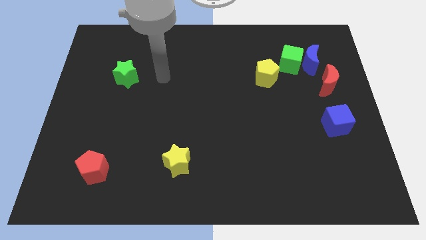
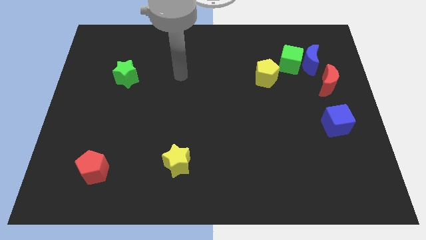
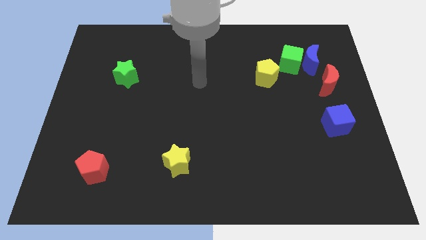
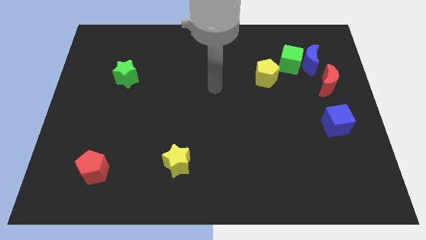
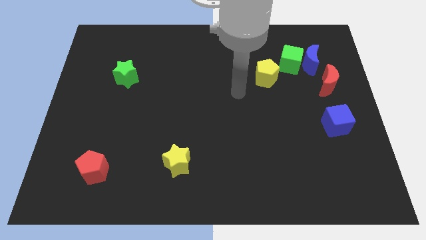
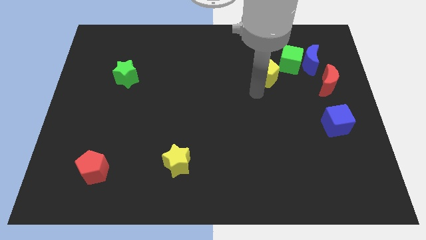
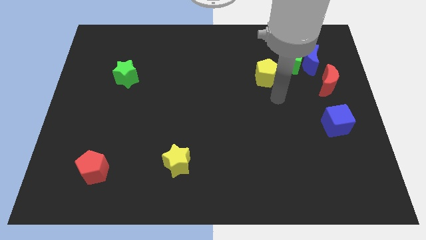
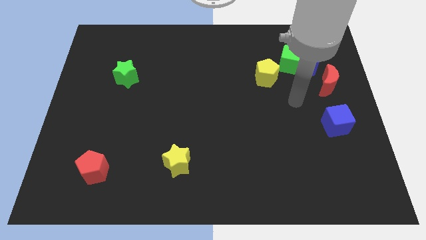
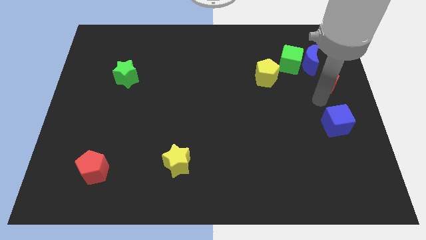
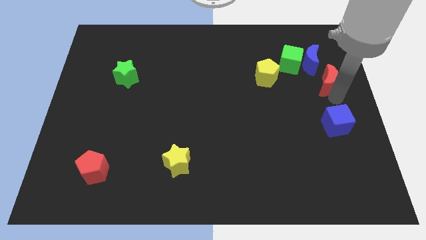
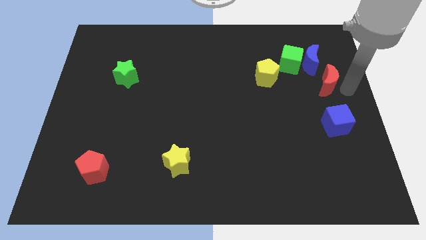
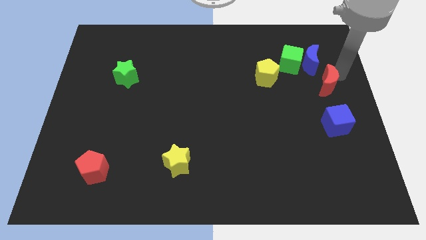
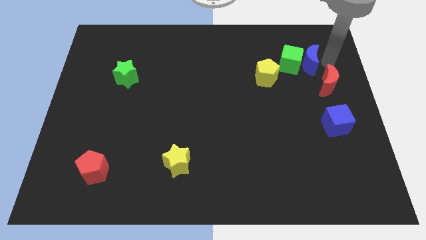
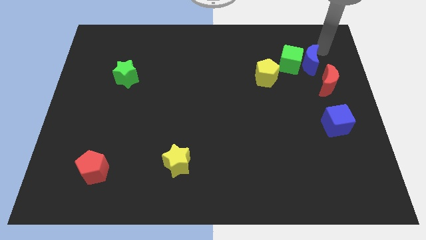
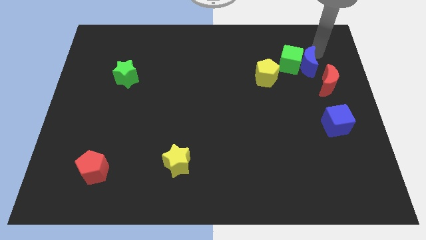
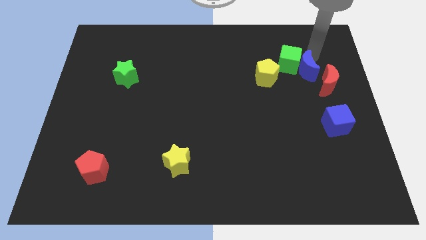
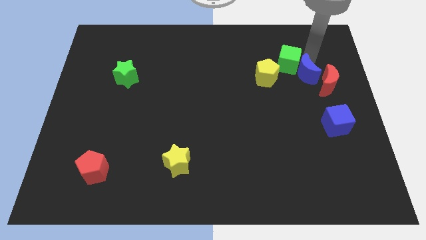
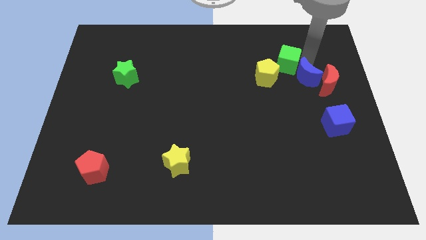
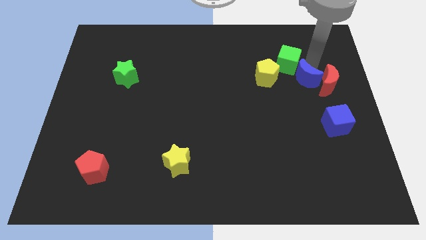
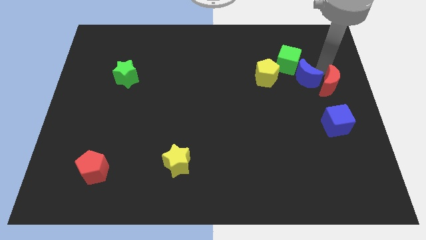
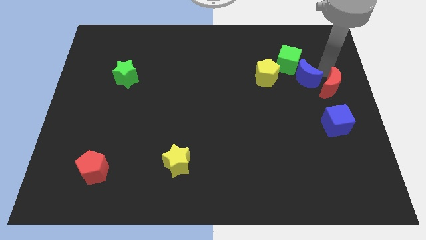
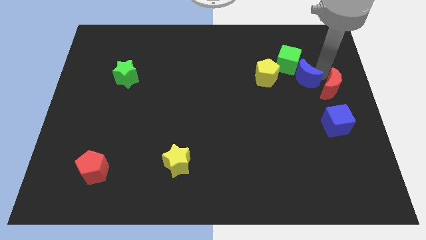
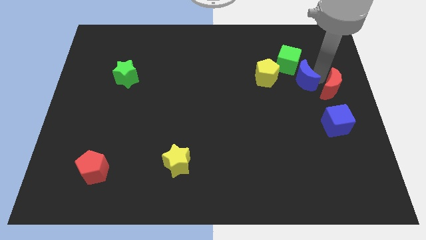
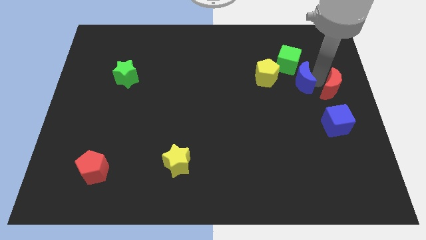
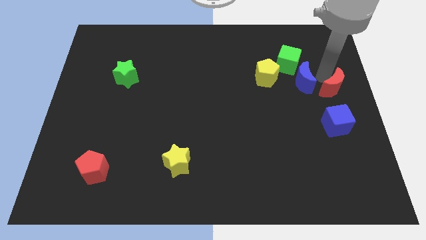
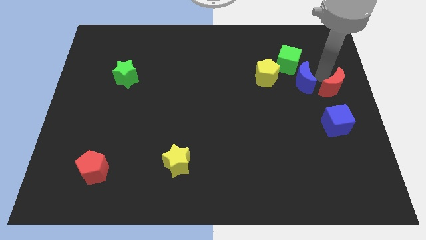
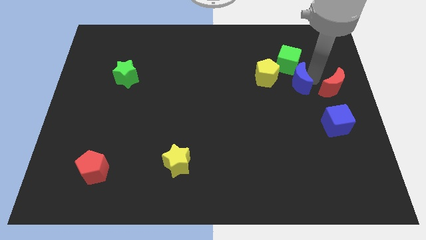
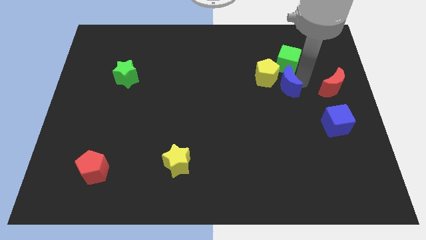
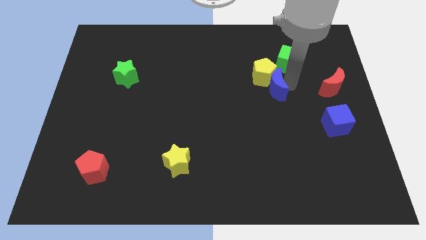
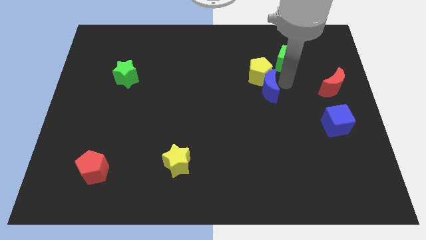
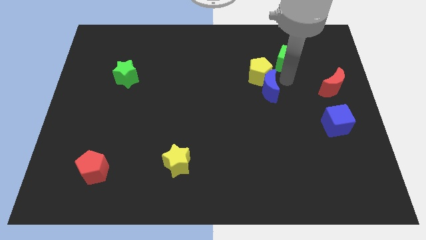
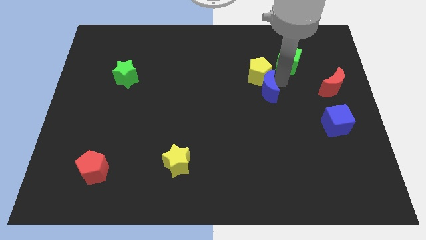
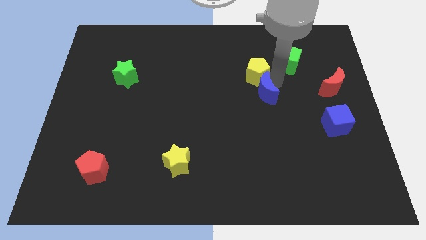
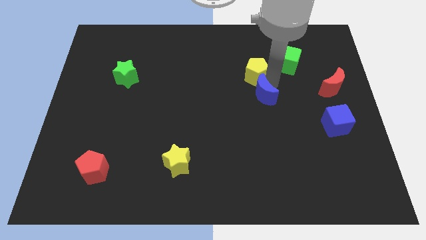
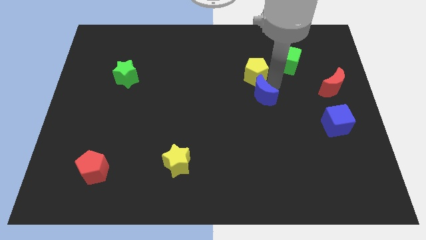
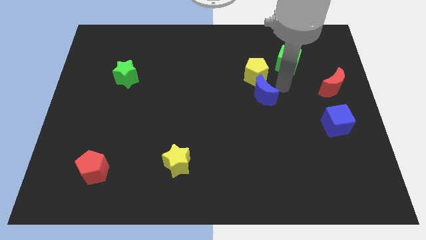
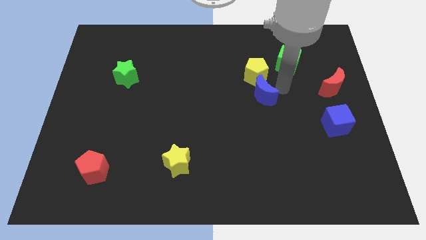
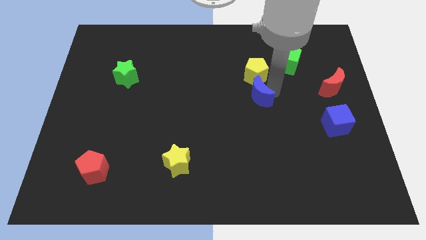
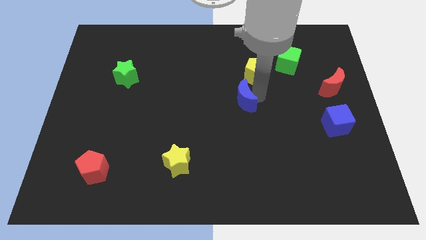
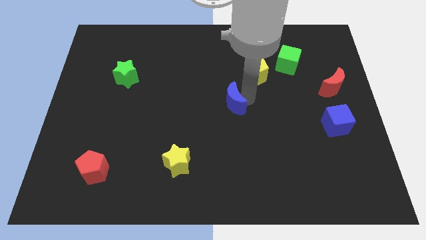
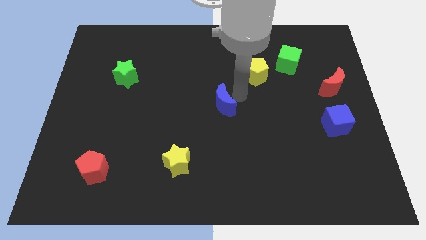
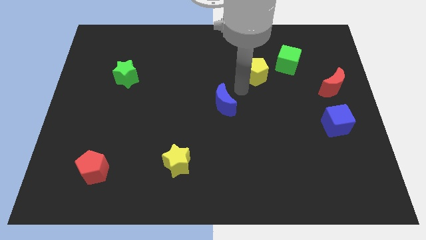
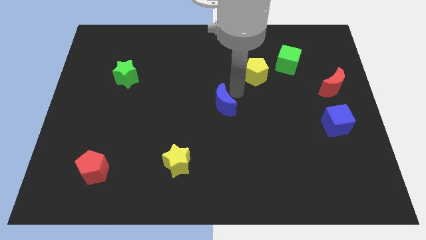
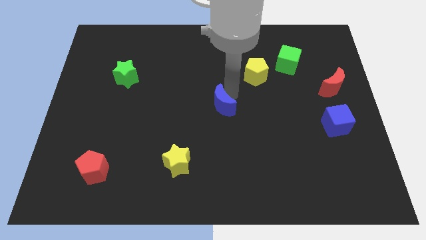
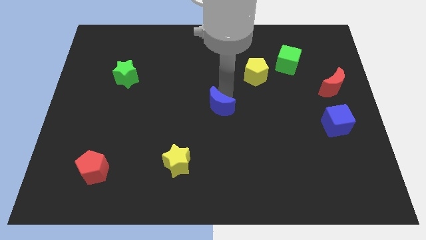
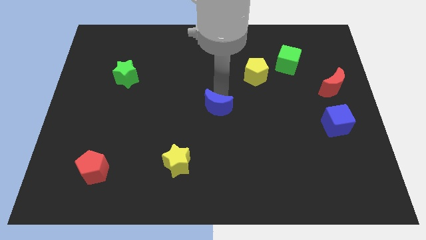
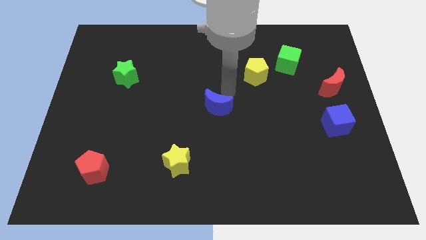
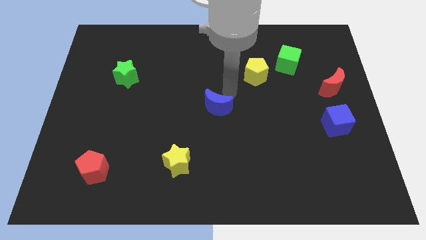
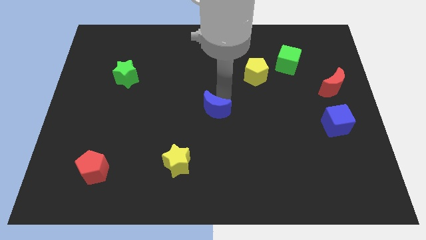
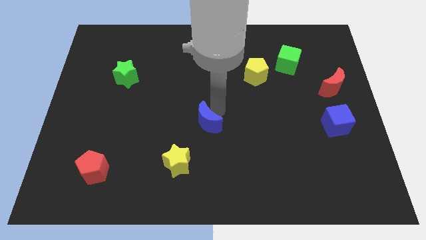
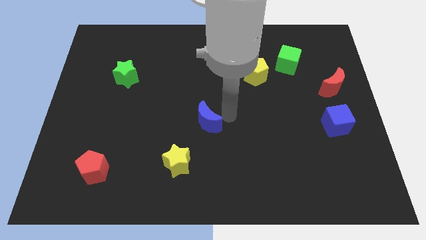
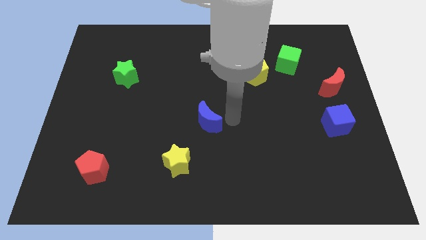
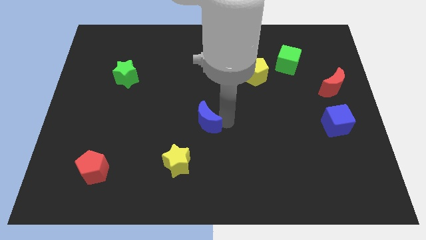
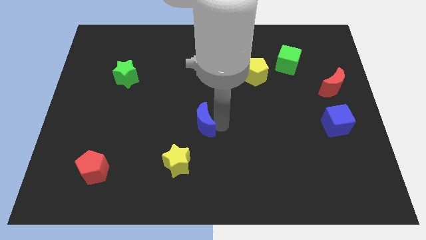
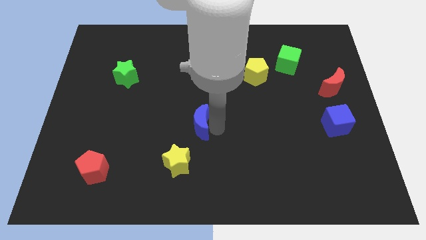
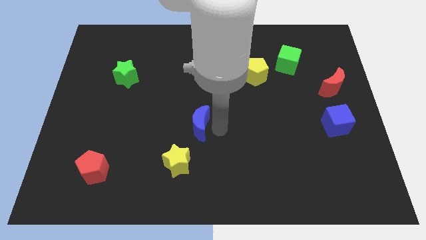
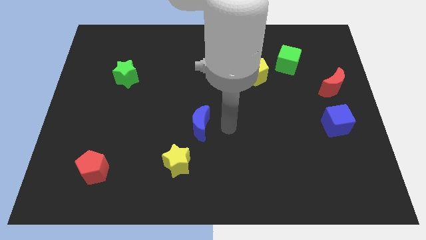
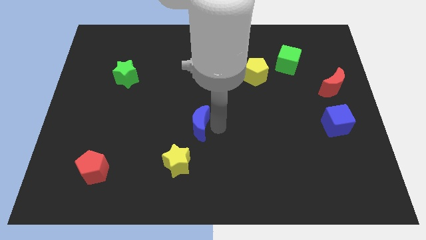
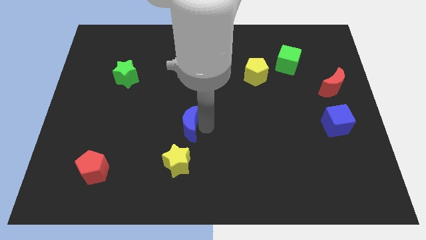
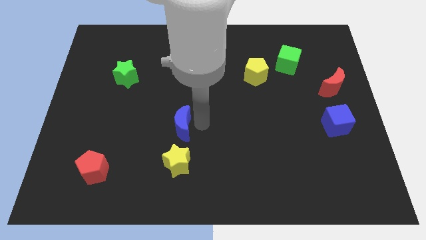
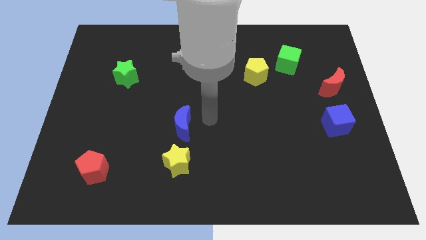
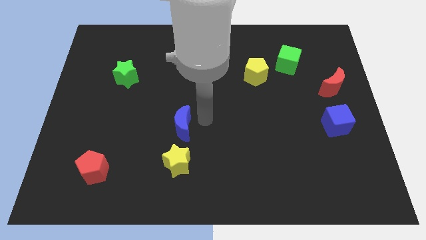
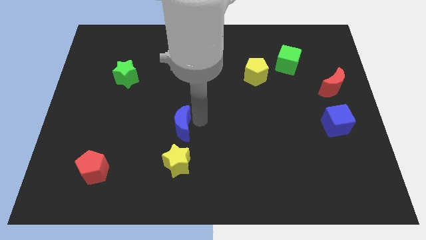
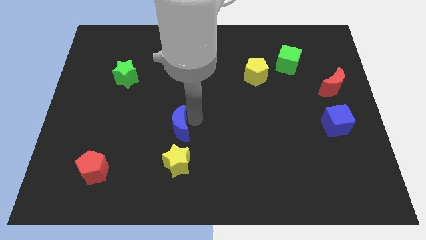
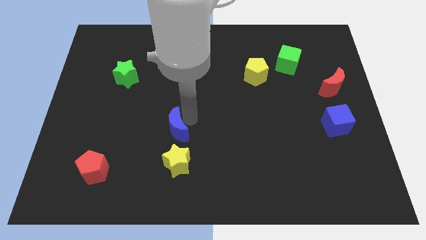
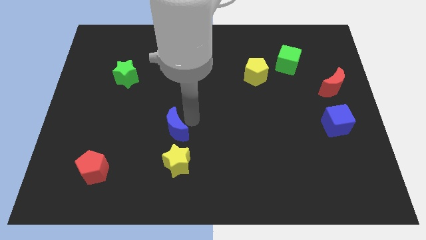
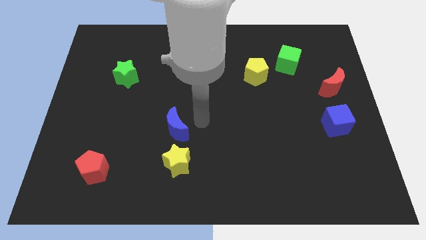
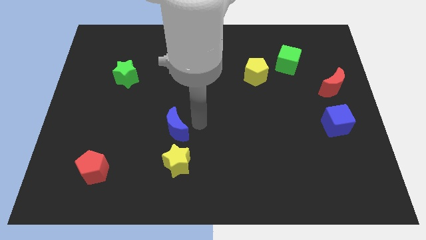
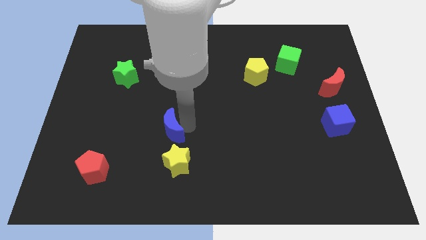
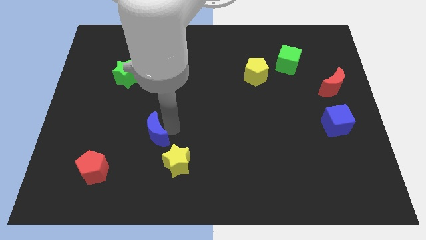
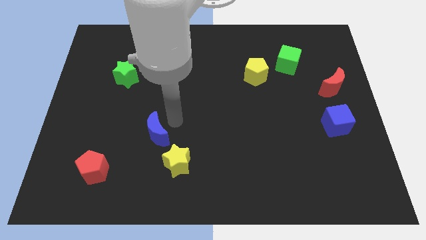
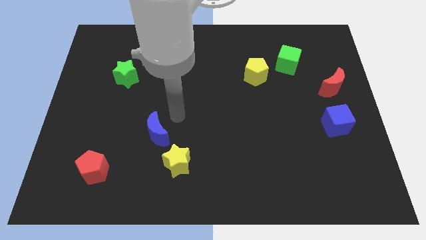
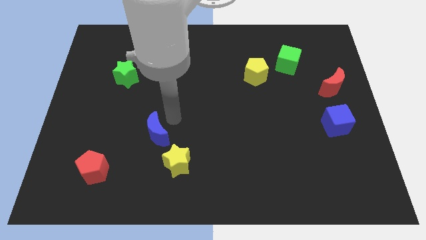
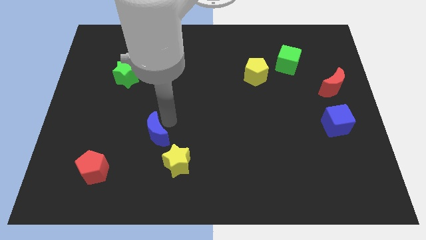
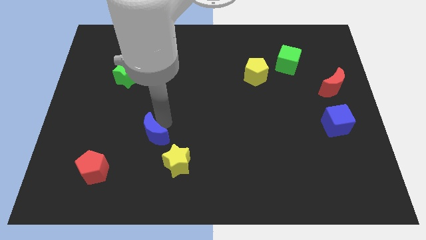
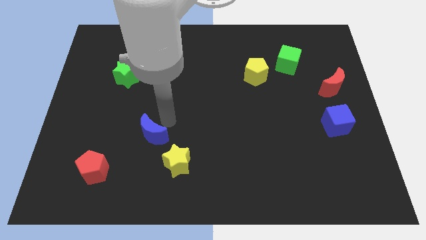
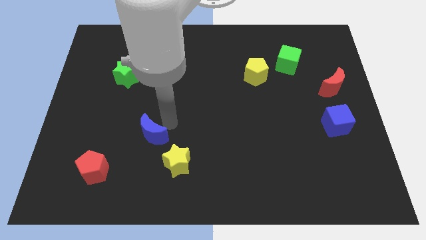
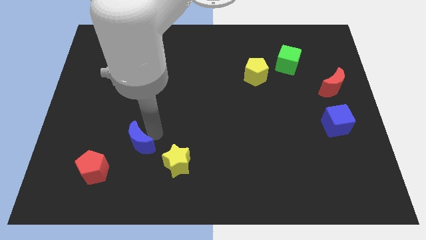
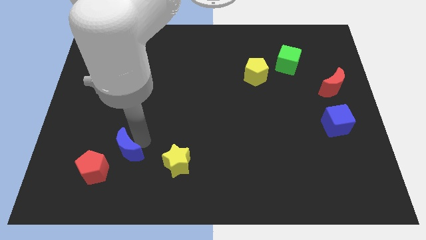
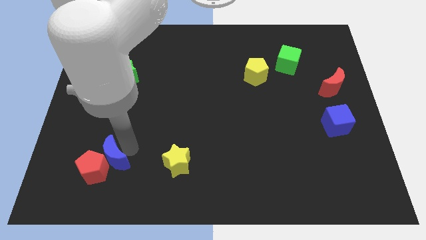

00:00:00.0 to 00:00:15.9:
push the blue moon next to the red pentagon
